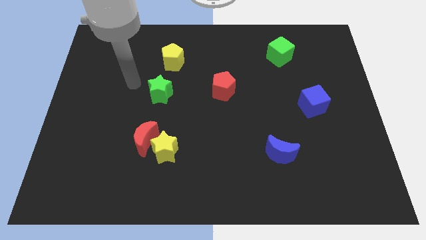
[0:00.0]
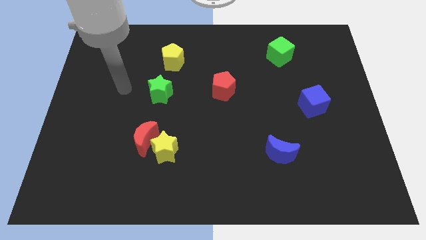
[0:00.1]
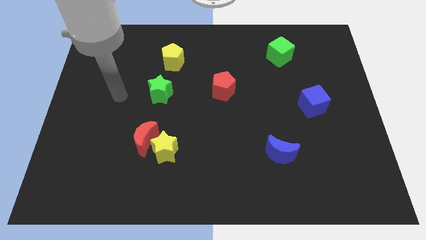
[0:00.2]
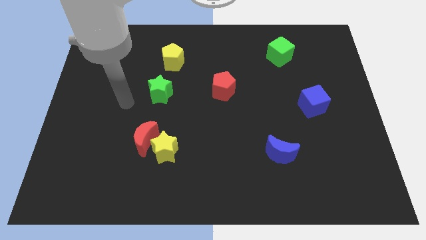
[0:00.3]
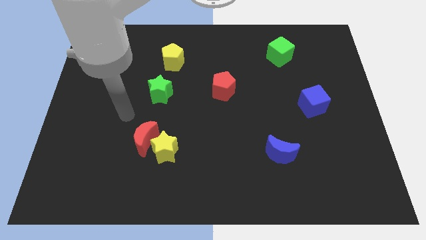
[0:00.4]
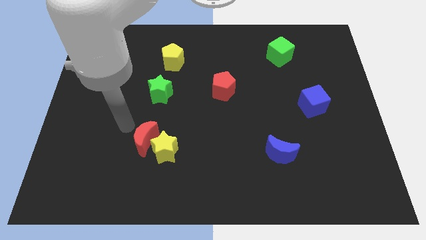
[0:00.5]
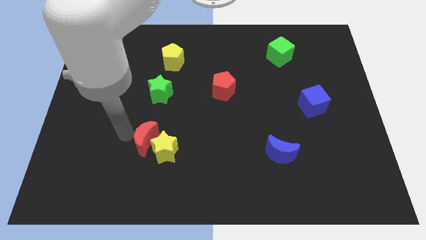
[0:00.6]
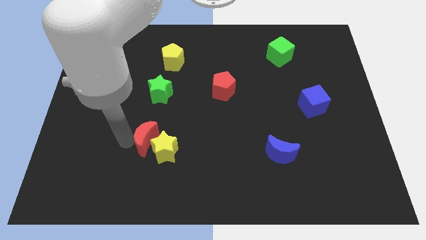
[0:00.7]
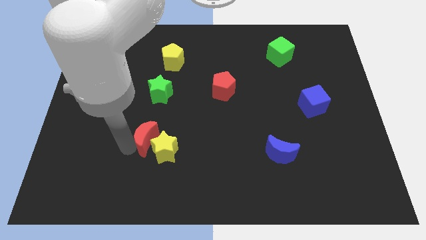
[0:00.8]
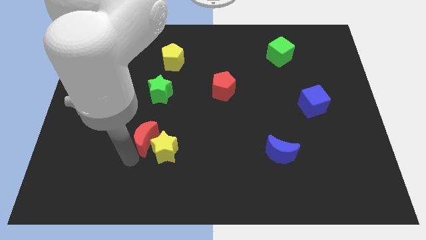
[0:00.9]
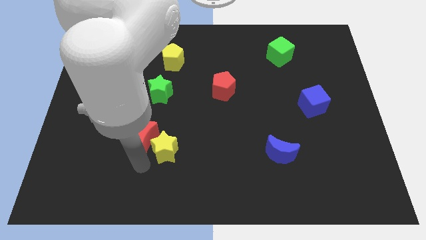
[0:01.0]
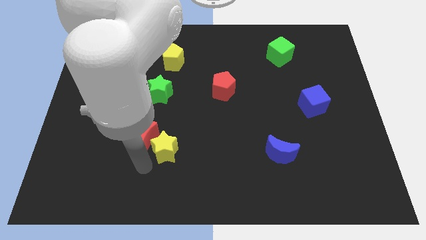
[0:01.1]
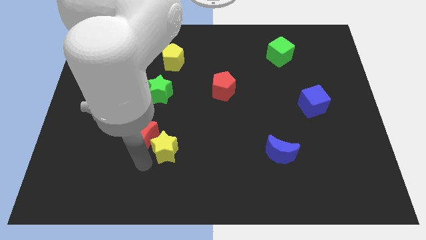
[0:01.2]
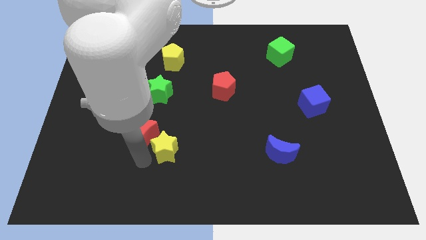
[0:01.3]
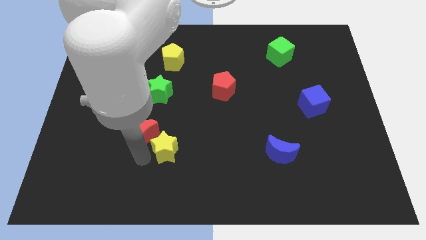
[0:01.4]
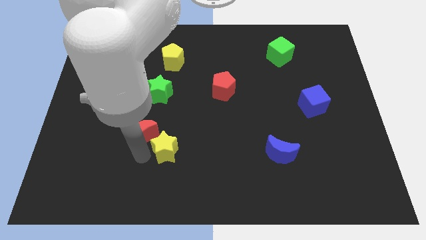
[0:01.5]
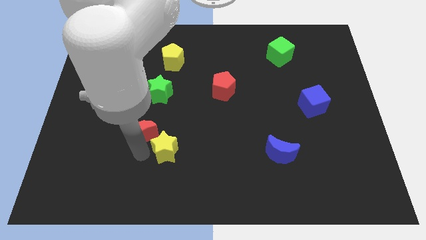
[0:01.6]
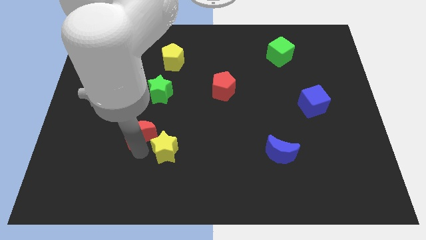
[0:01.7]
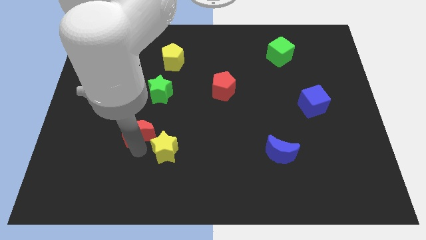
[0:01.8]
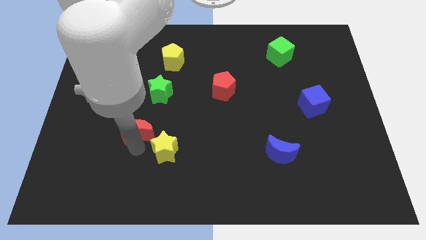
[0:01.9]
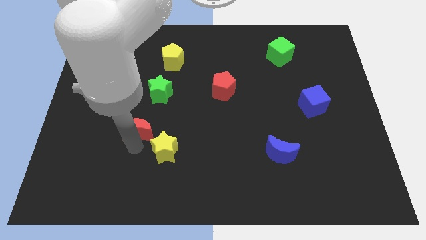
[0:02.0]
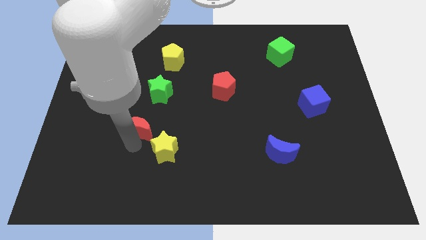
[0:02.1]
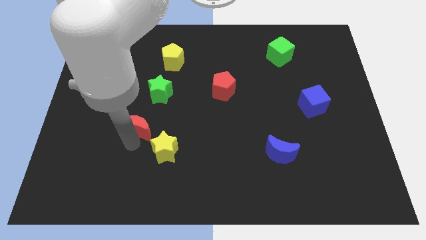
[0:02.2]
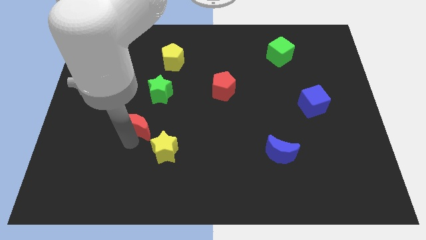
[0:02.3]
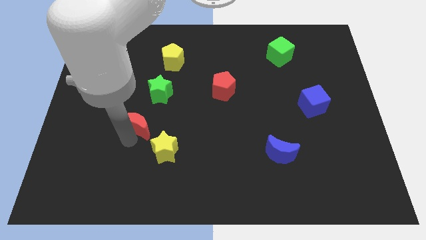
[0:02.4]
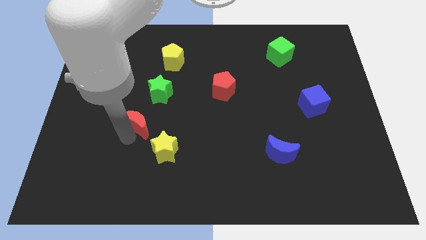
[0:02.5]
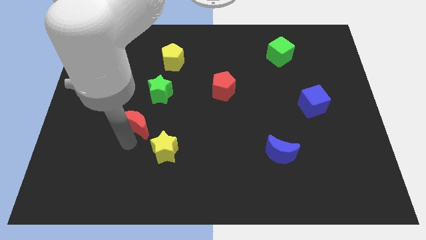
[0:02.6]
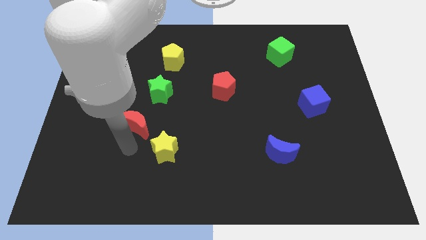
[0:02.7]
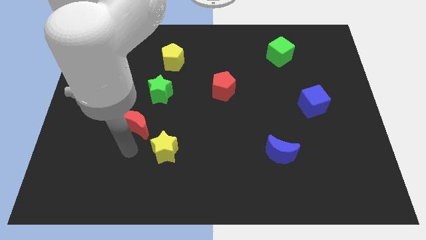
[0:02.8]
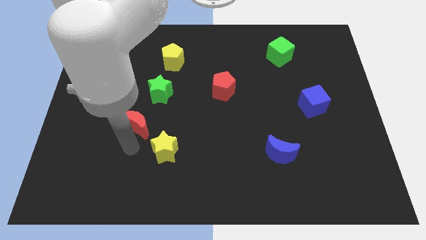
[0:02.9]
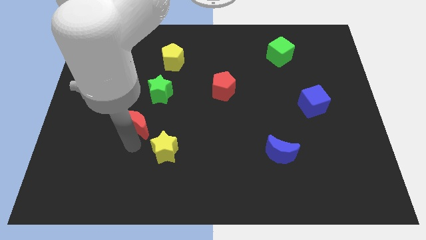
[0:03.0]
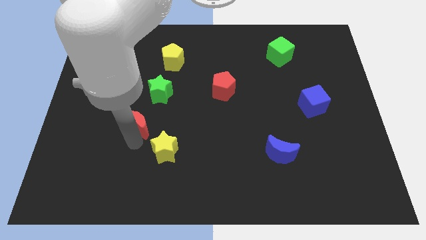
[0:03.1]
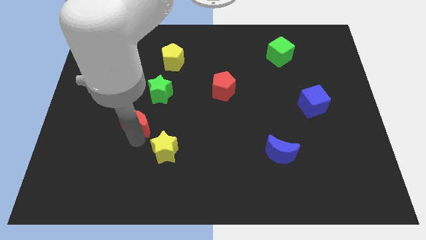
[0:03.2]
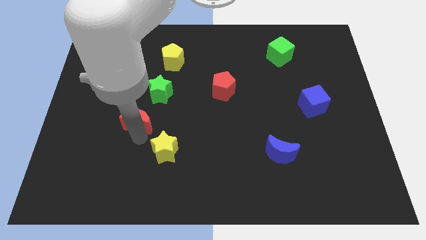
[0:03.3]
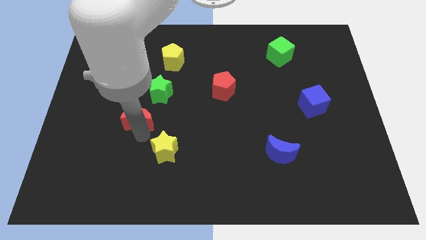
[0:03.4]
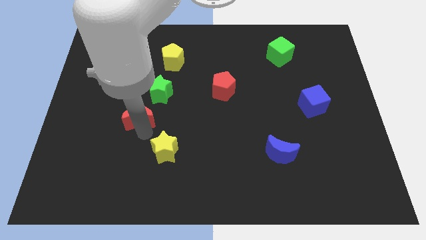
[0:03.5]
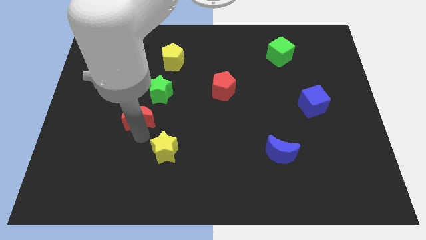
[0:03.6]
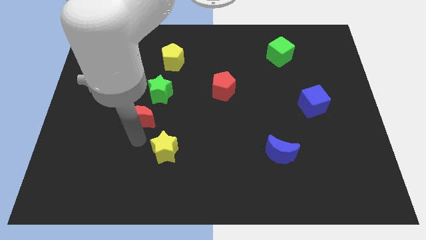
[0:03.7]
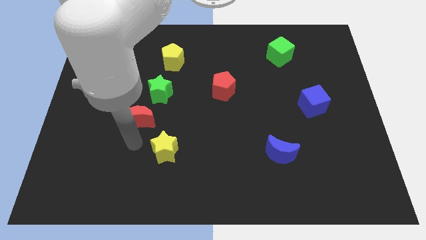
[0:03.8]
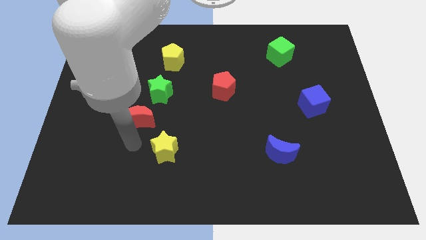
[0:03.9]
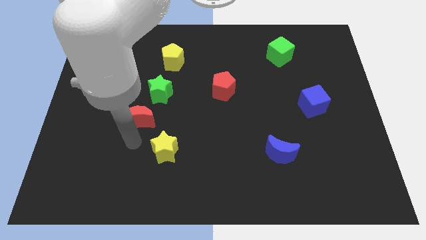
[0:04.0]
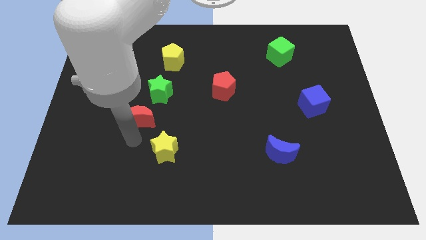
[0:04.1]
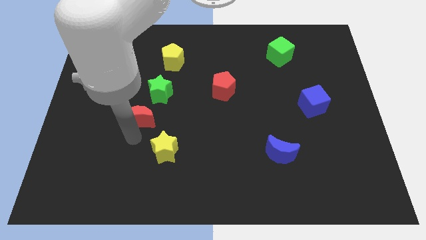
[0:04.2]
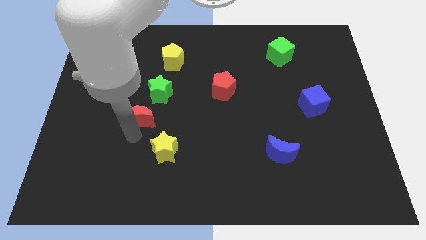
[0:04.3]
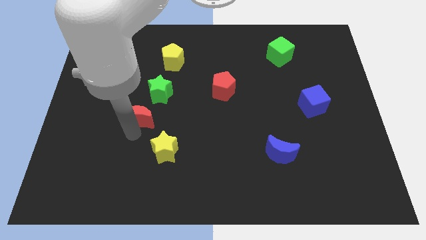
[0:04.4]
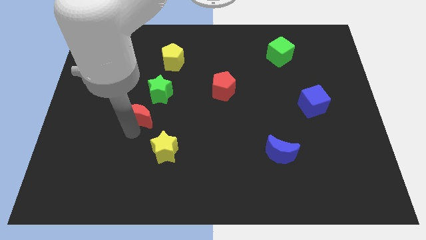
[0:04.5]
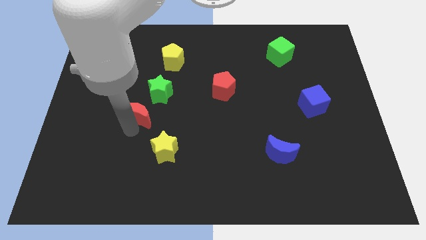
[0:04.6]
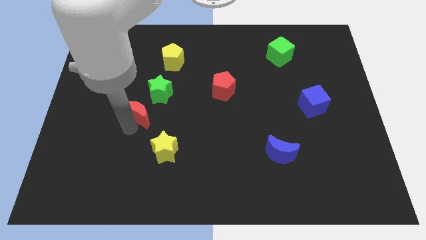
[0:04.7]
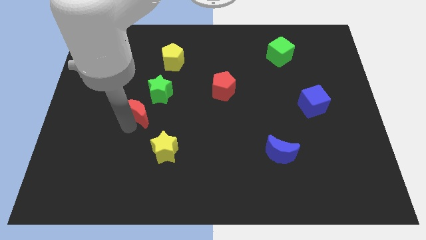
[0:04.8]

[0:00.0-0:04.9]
slide the red moon up a bit

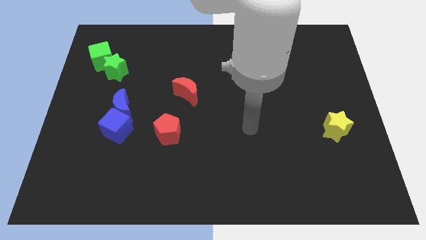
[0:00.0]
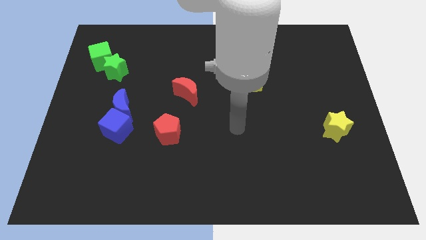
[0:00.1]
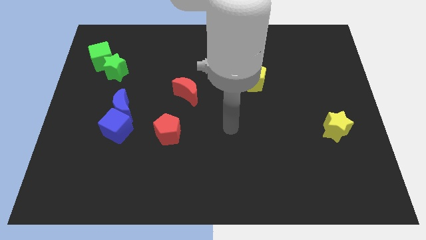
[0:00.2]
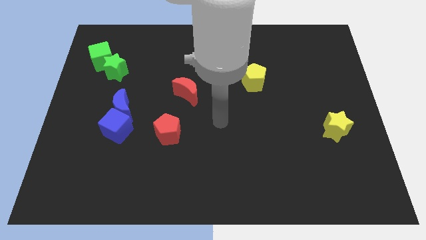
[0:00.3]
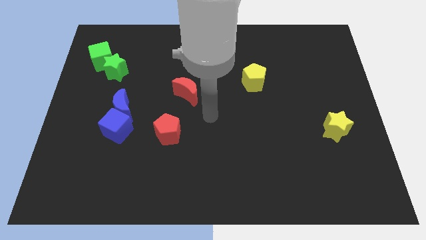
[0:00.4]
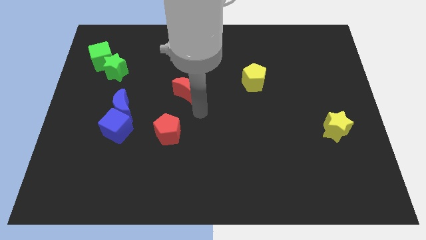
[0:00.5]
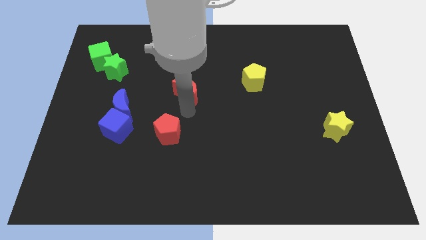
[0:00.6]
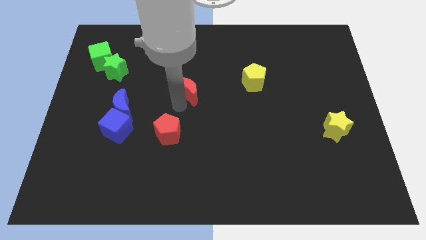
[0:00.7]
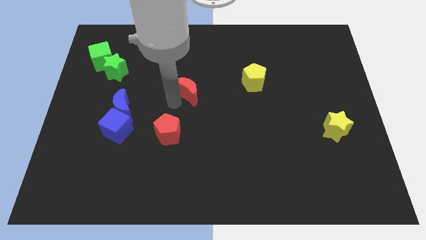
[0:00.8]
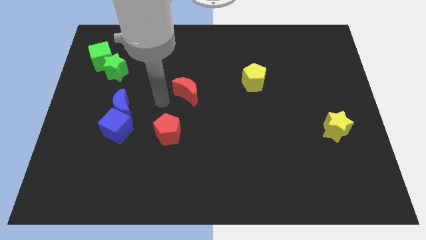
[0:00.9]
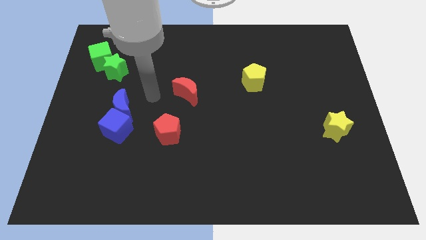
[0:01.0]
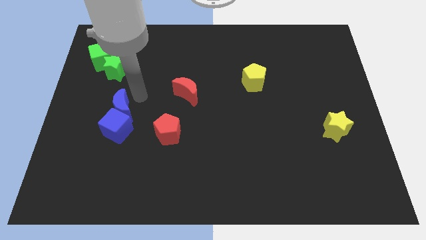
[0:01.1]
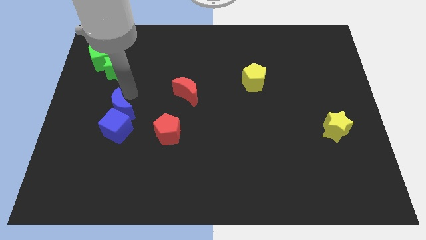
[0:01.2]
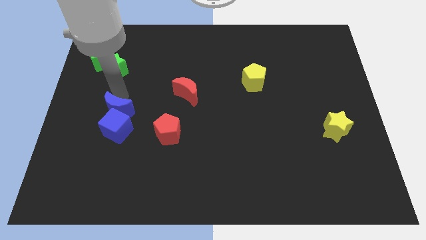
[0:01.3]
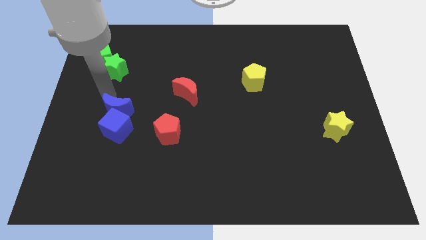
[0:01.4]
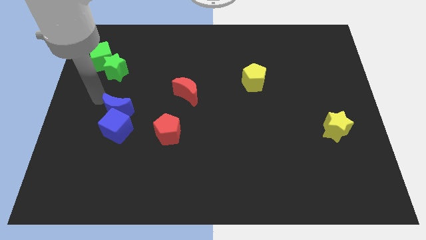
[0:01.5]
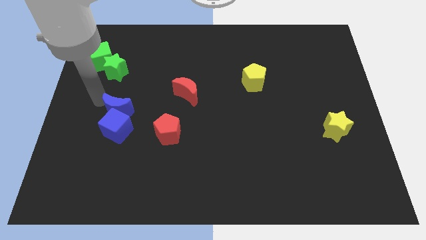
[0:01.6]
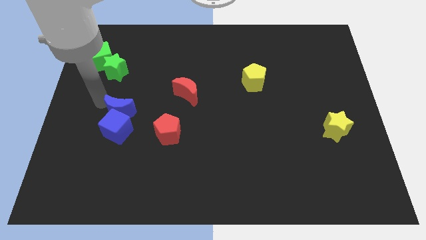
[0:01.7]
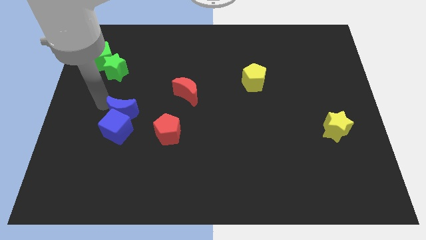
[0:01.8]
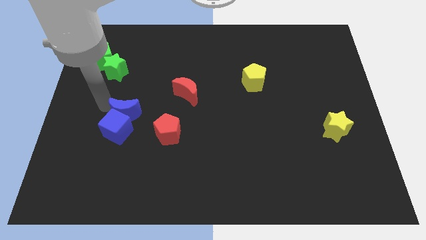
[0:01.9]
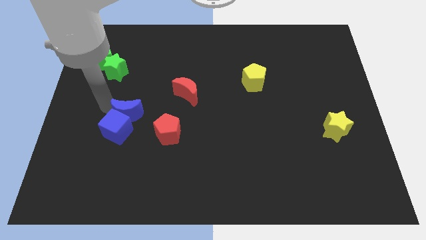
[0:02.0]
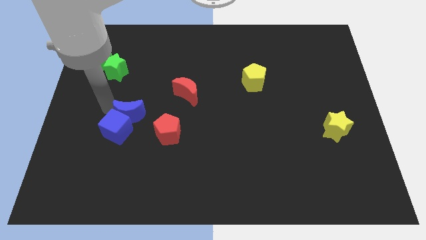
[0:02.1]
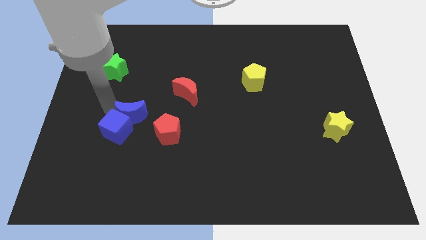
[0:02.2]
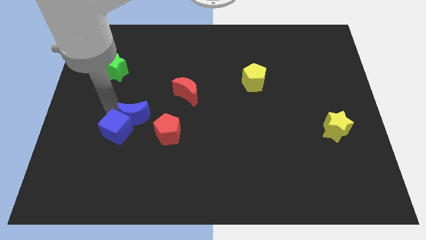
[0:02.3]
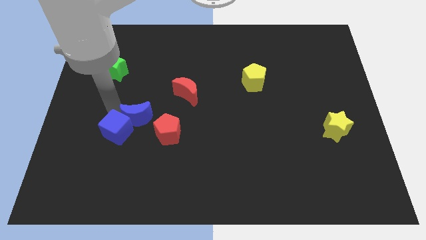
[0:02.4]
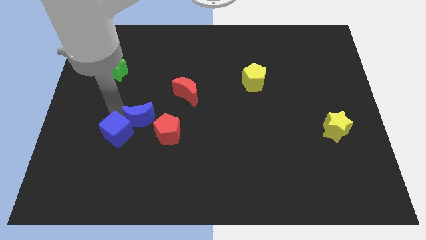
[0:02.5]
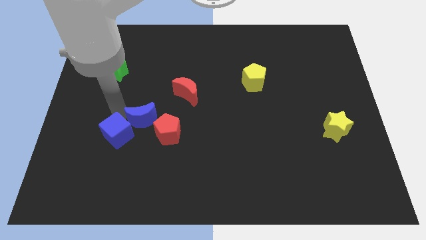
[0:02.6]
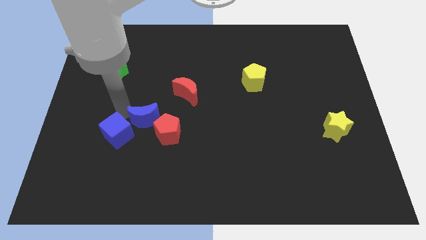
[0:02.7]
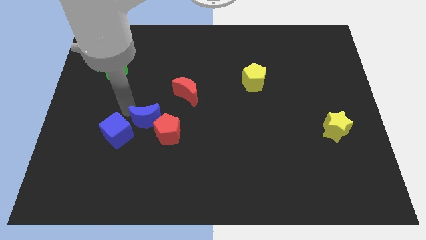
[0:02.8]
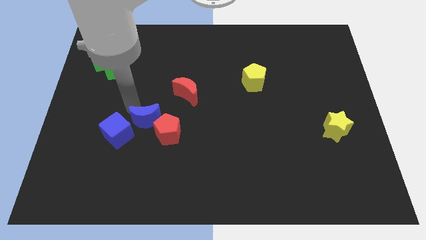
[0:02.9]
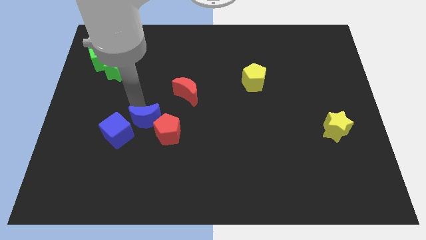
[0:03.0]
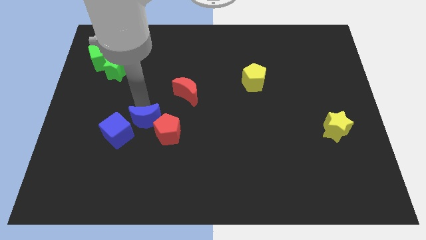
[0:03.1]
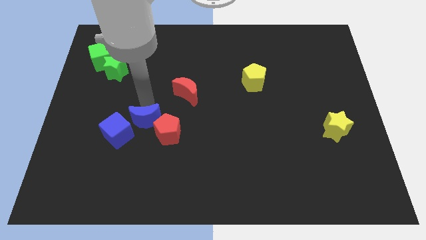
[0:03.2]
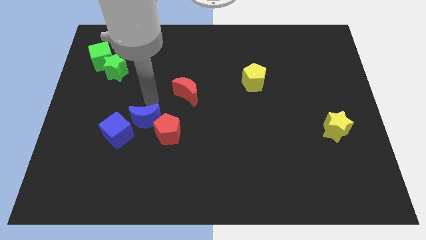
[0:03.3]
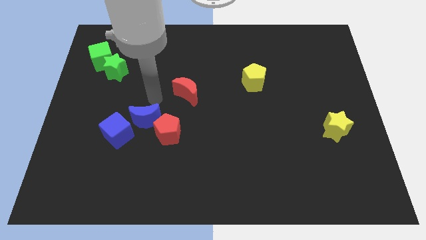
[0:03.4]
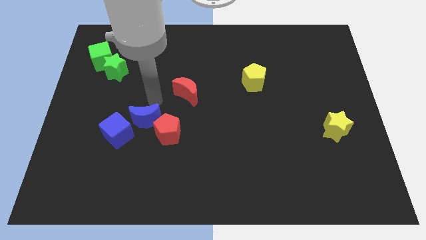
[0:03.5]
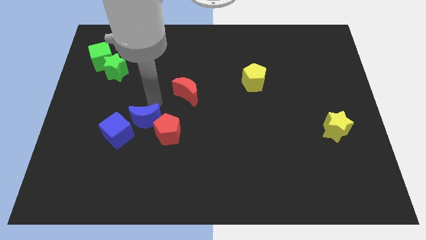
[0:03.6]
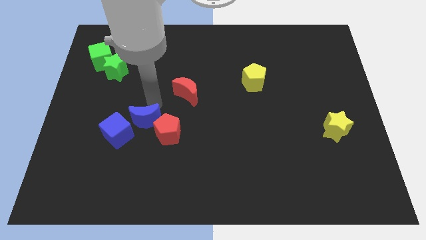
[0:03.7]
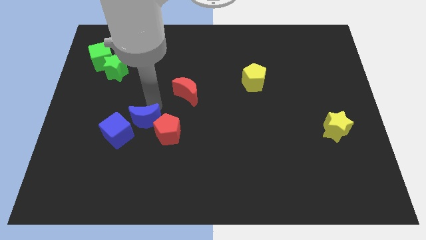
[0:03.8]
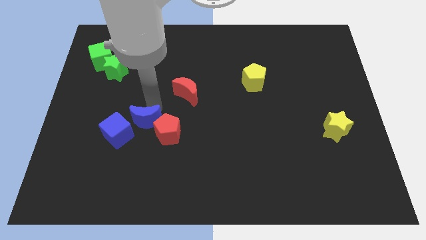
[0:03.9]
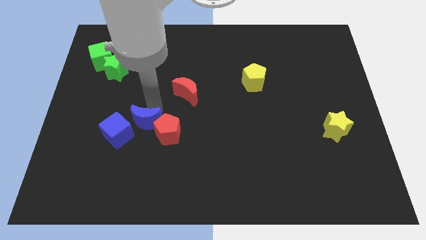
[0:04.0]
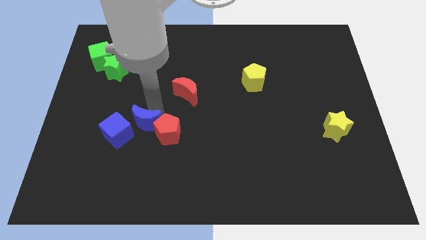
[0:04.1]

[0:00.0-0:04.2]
move the blue moon a bit diagonally downwards and to the right
